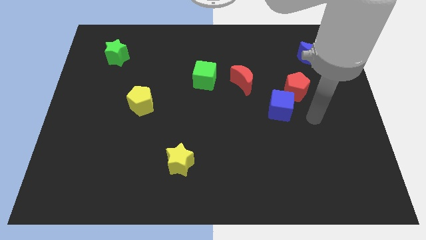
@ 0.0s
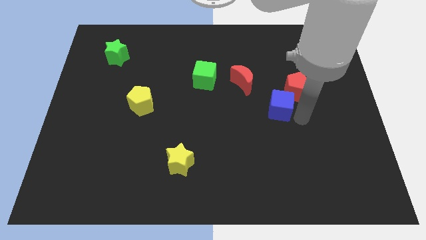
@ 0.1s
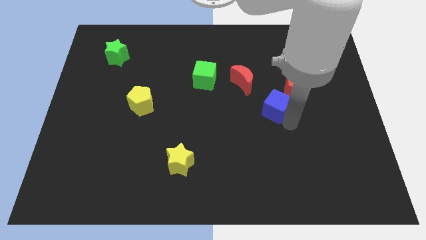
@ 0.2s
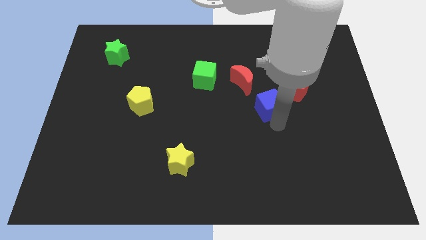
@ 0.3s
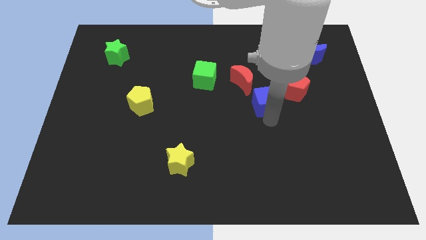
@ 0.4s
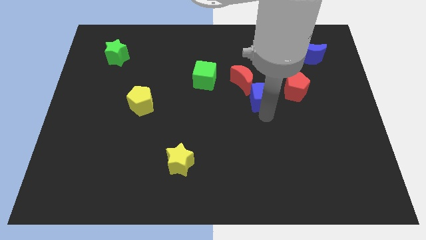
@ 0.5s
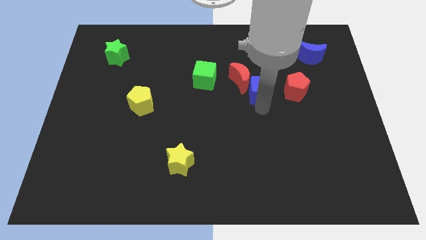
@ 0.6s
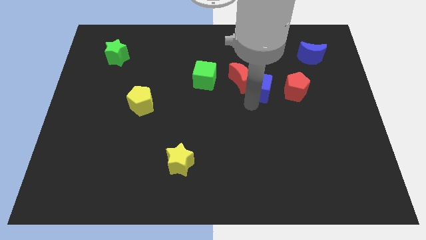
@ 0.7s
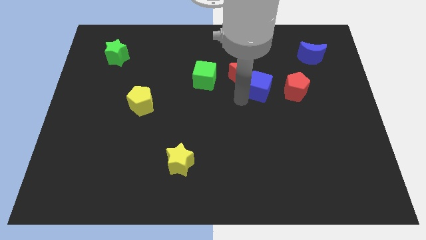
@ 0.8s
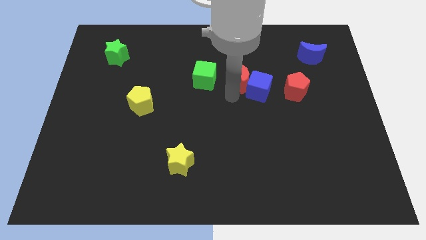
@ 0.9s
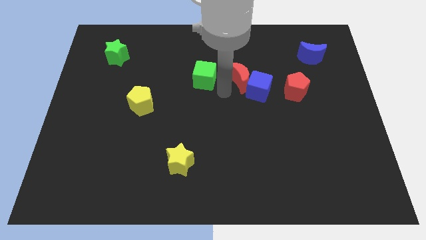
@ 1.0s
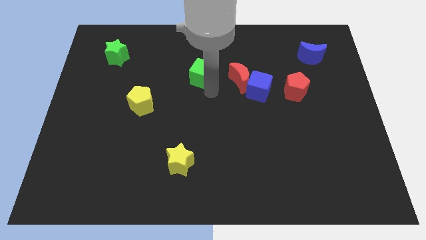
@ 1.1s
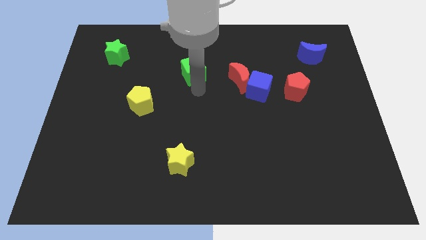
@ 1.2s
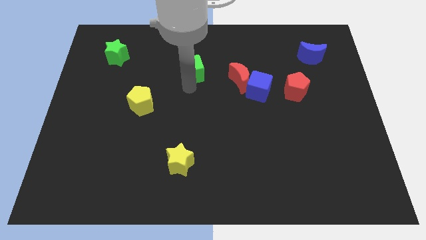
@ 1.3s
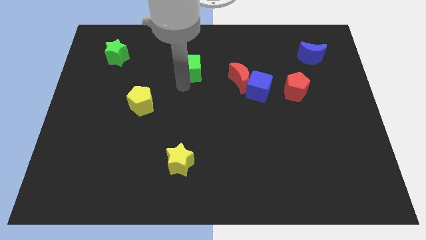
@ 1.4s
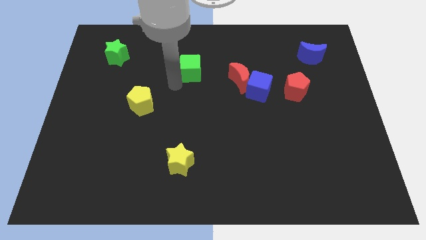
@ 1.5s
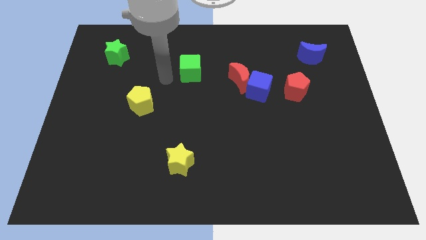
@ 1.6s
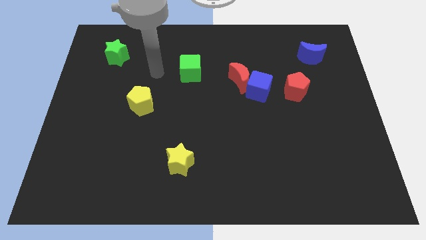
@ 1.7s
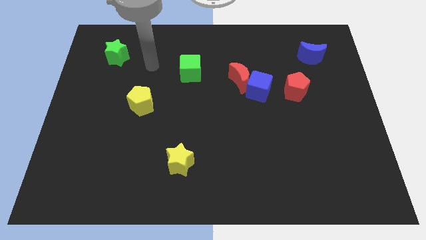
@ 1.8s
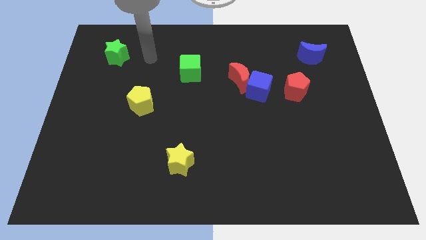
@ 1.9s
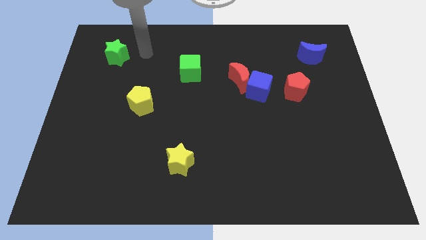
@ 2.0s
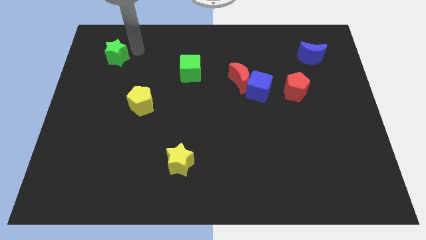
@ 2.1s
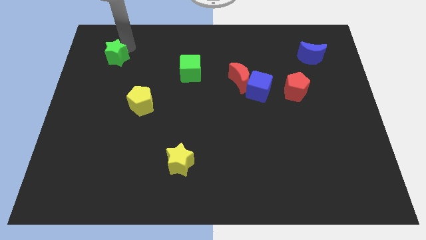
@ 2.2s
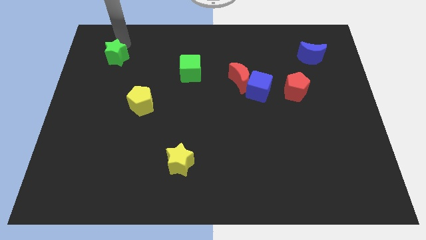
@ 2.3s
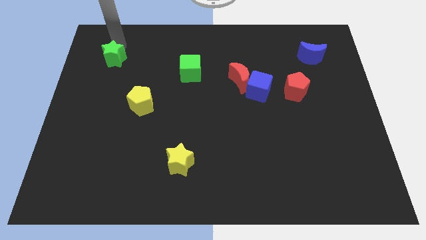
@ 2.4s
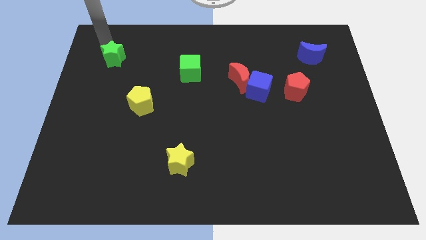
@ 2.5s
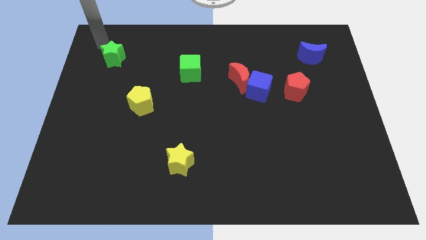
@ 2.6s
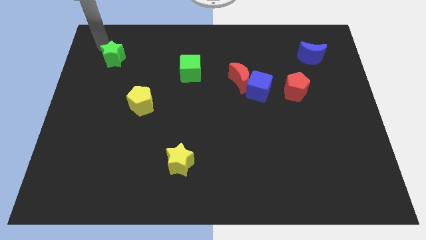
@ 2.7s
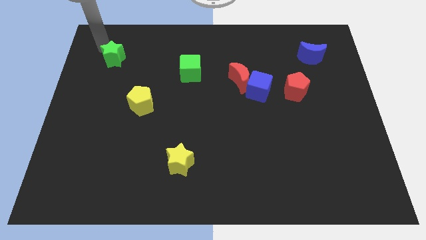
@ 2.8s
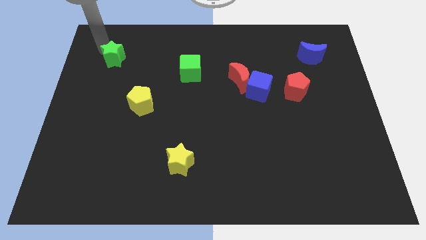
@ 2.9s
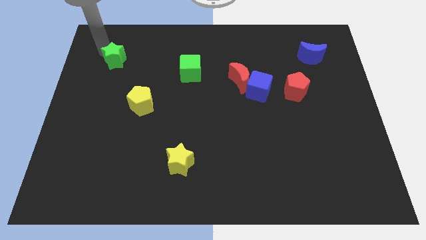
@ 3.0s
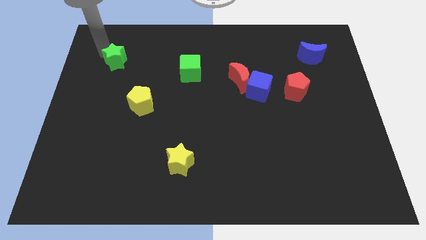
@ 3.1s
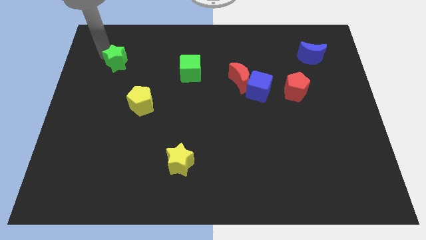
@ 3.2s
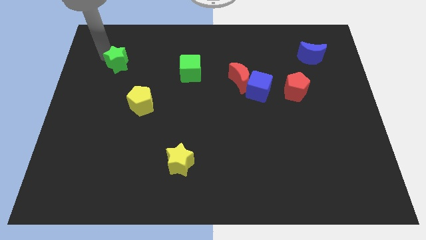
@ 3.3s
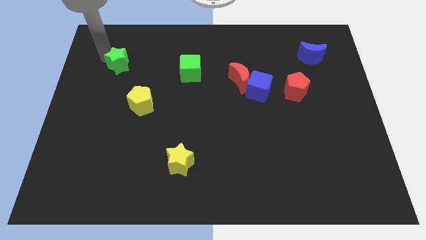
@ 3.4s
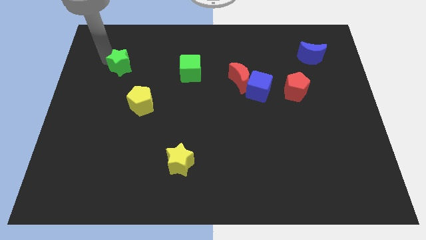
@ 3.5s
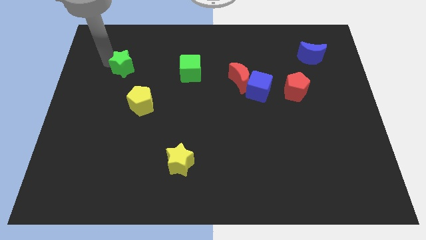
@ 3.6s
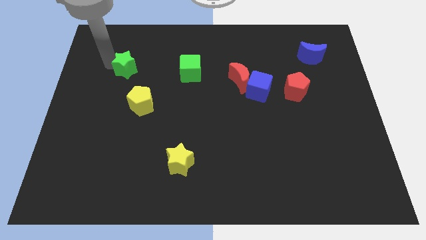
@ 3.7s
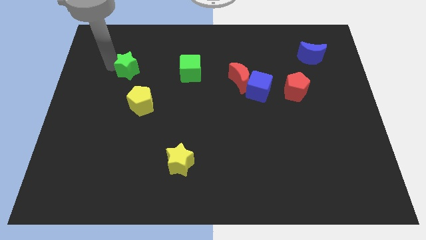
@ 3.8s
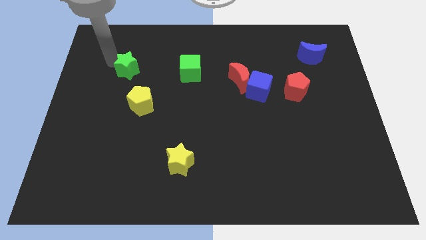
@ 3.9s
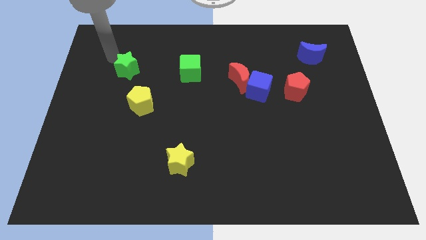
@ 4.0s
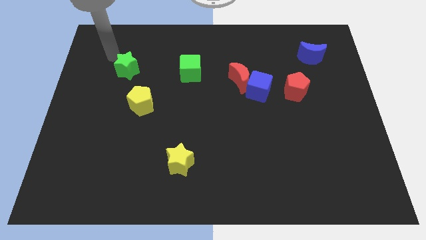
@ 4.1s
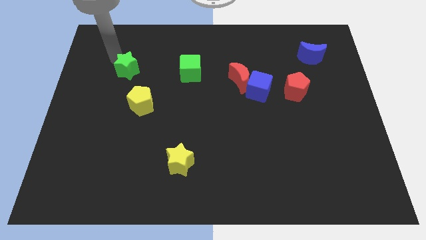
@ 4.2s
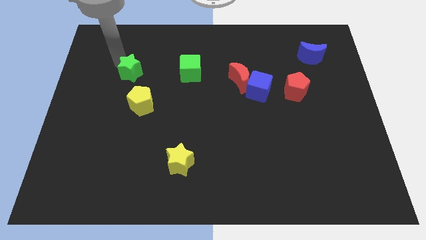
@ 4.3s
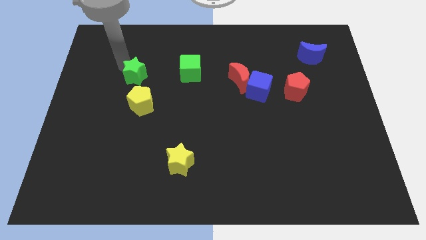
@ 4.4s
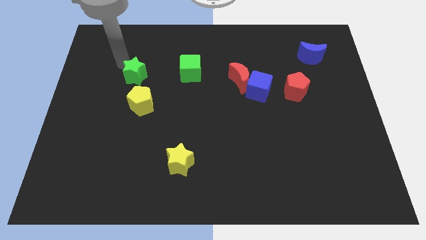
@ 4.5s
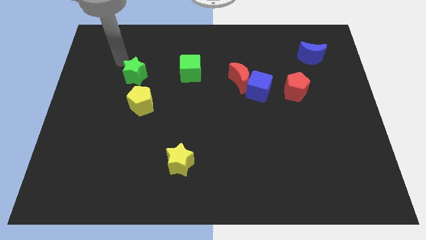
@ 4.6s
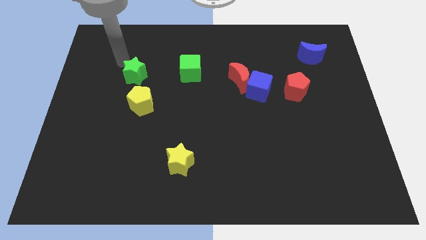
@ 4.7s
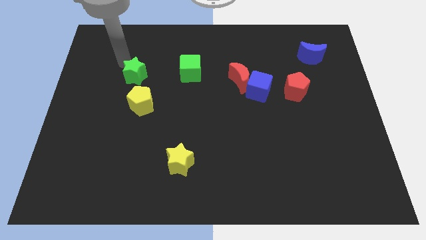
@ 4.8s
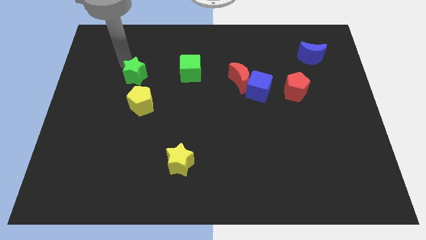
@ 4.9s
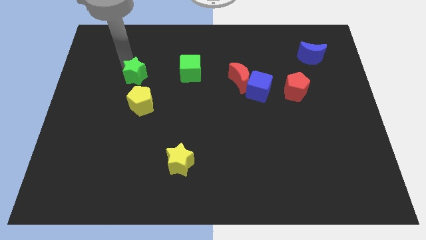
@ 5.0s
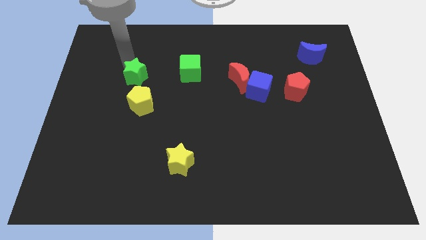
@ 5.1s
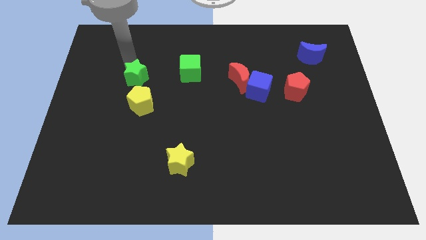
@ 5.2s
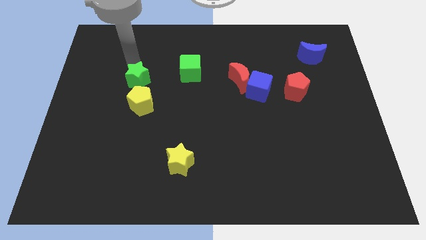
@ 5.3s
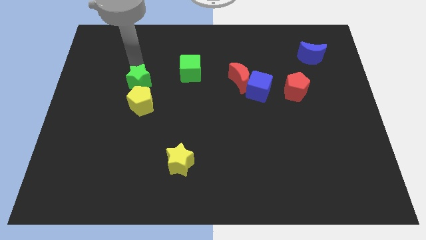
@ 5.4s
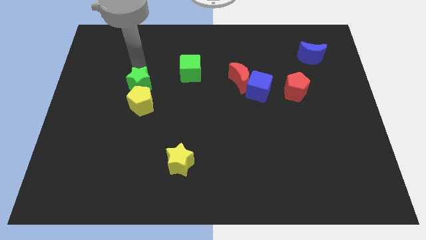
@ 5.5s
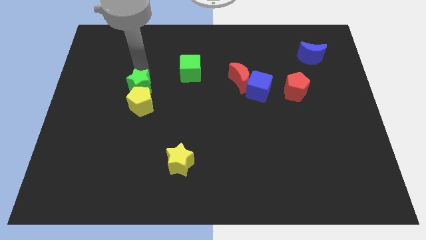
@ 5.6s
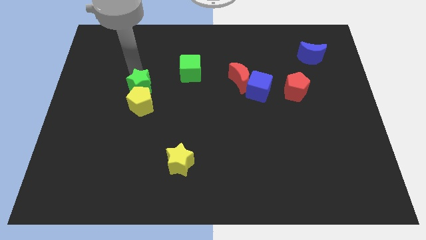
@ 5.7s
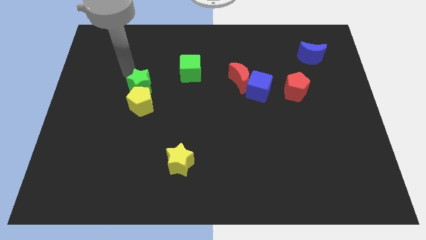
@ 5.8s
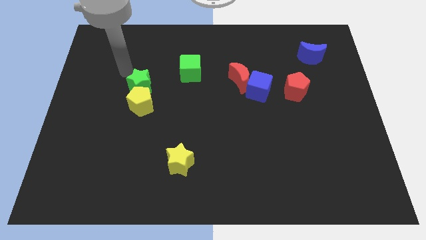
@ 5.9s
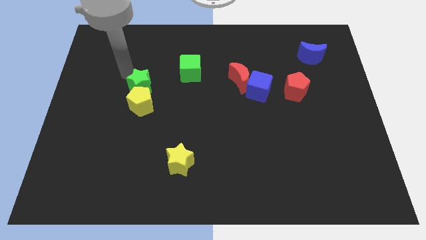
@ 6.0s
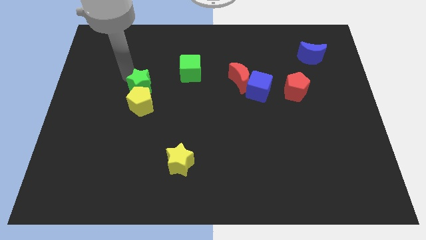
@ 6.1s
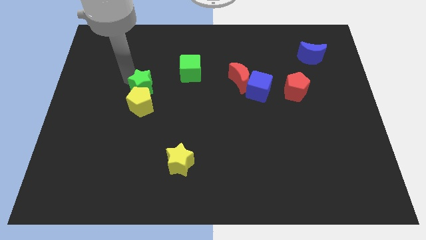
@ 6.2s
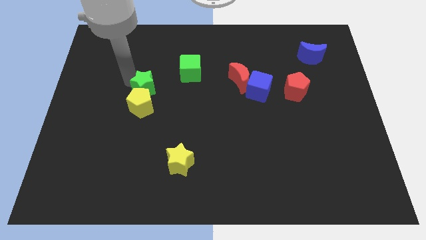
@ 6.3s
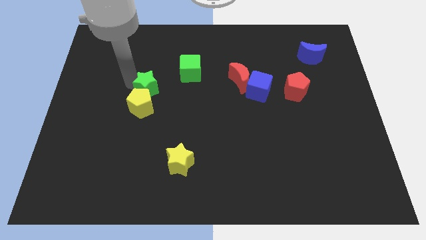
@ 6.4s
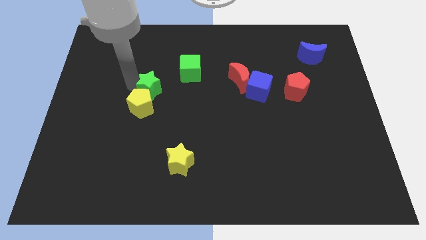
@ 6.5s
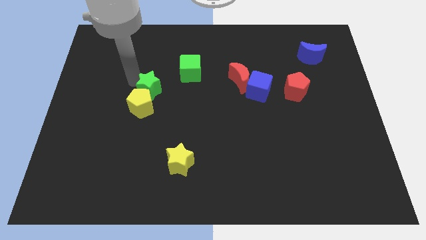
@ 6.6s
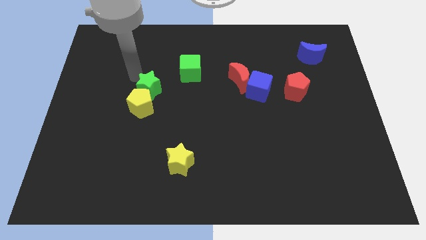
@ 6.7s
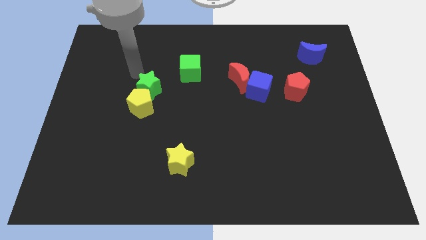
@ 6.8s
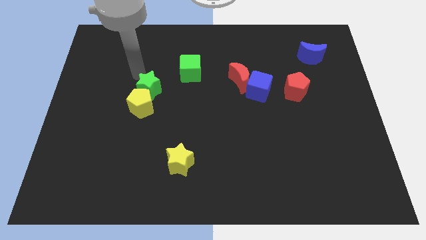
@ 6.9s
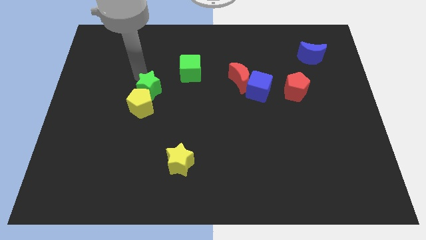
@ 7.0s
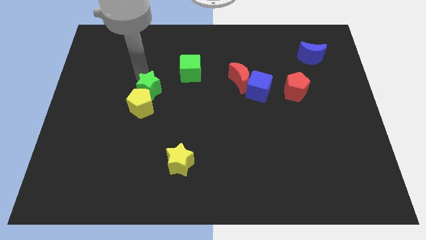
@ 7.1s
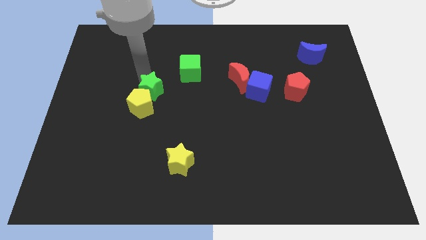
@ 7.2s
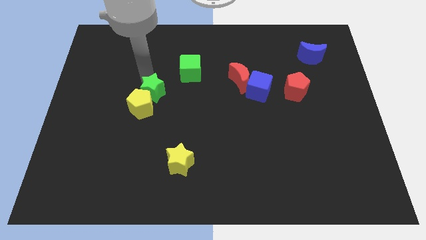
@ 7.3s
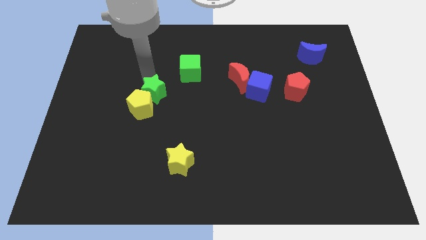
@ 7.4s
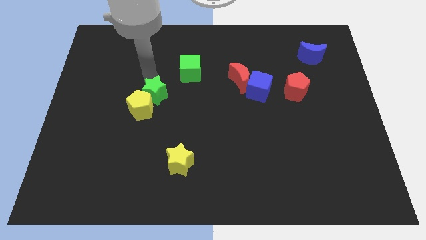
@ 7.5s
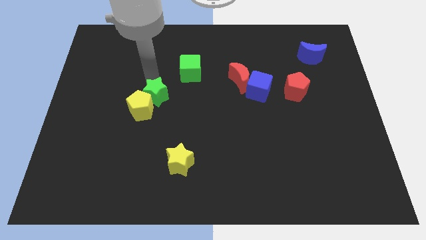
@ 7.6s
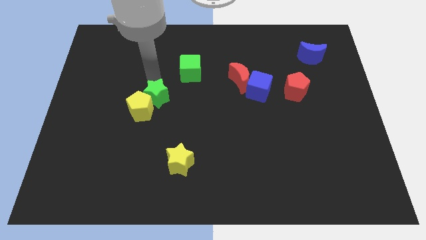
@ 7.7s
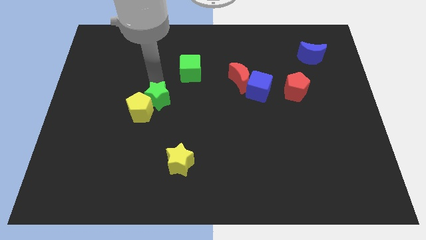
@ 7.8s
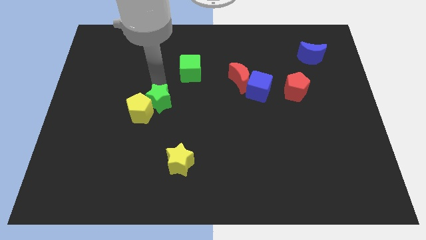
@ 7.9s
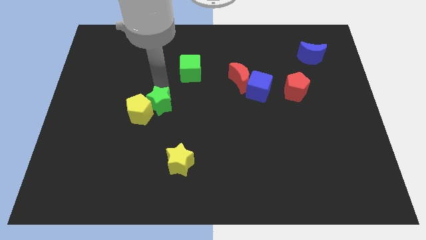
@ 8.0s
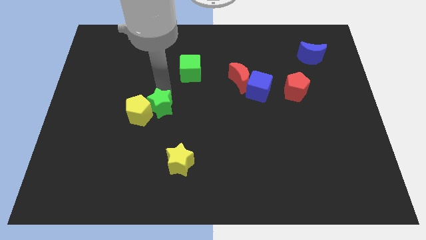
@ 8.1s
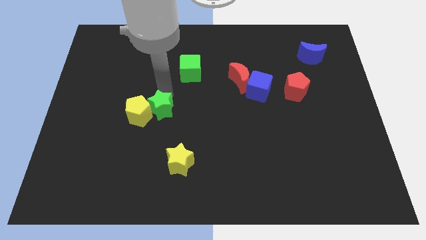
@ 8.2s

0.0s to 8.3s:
push the green star to the bottom right of the yellow pentagon
